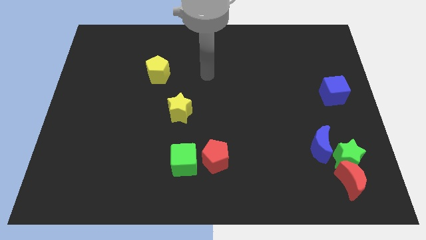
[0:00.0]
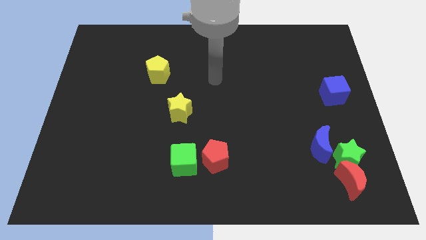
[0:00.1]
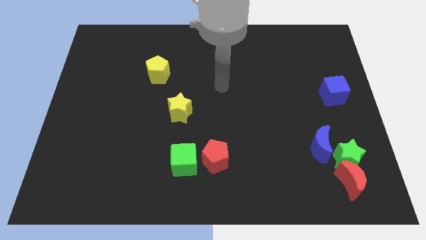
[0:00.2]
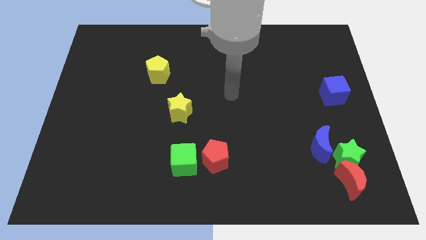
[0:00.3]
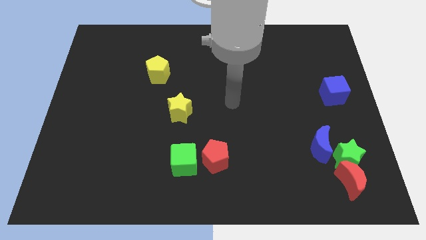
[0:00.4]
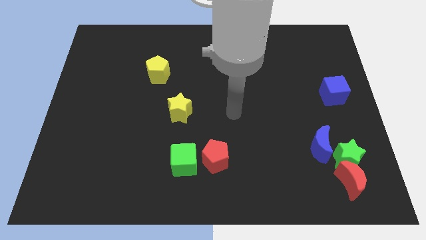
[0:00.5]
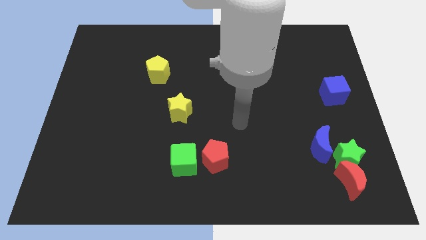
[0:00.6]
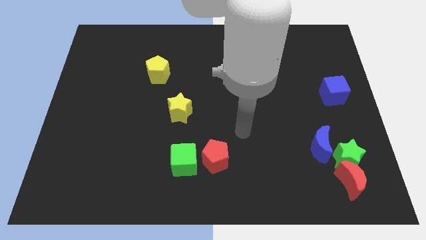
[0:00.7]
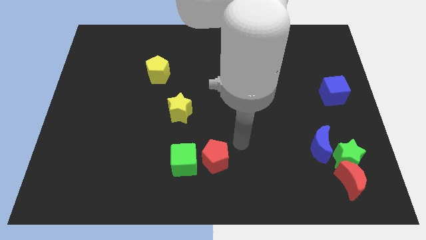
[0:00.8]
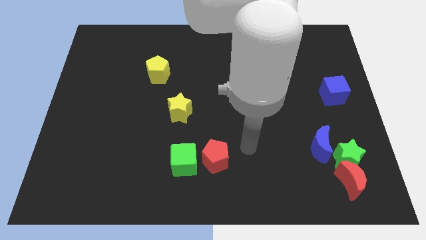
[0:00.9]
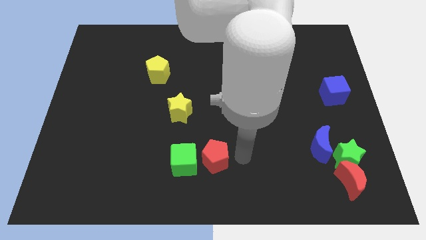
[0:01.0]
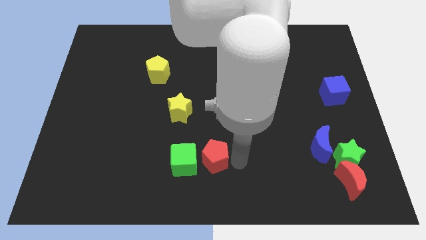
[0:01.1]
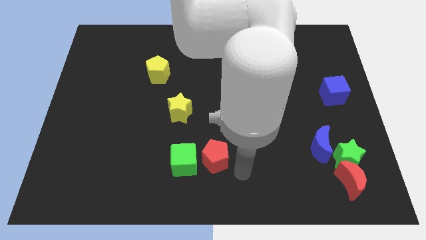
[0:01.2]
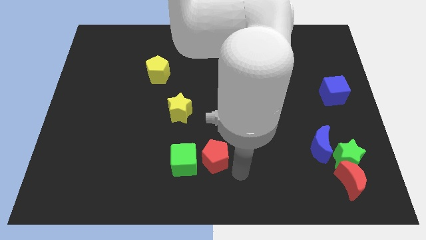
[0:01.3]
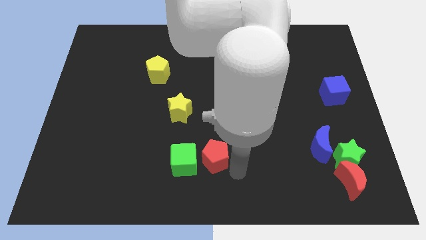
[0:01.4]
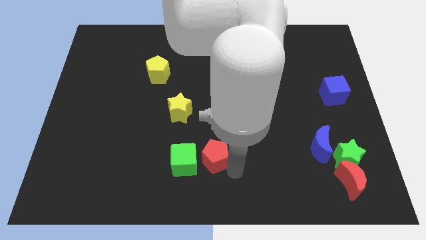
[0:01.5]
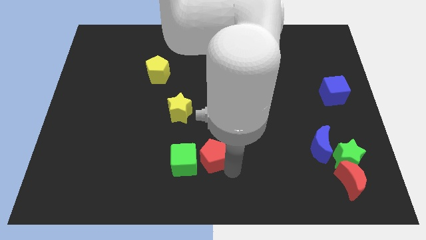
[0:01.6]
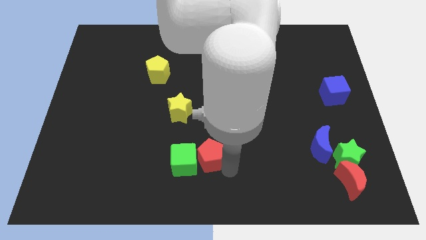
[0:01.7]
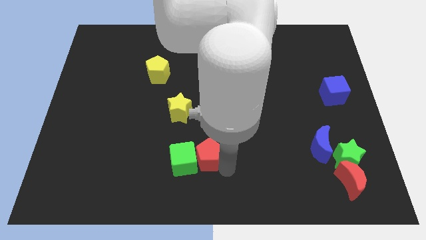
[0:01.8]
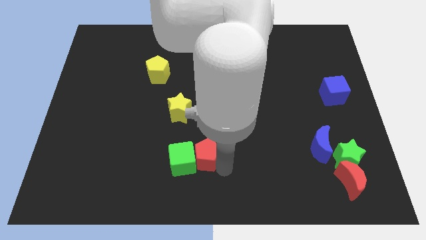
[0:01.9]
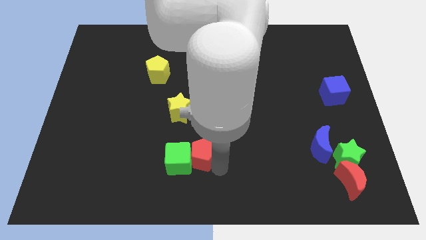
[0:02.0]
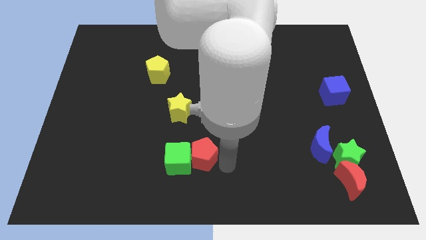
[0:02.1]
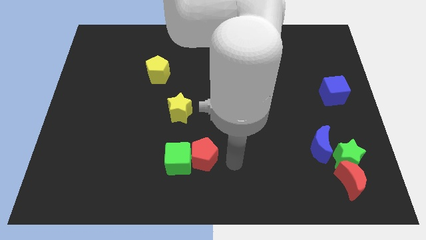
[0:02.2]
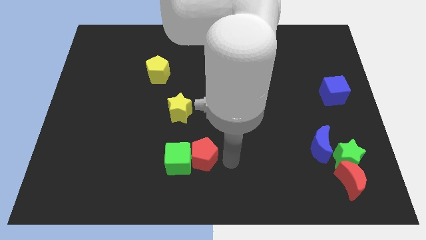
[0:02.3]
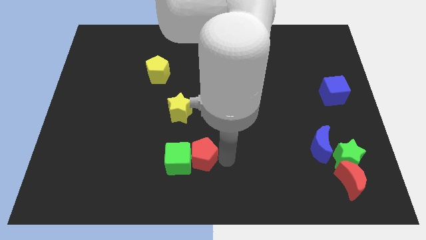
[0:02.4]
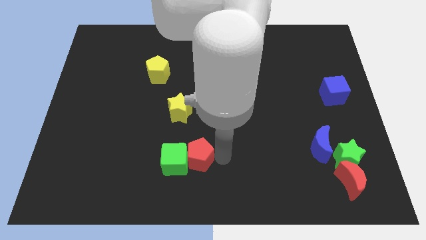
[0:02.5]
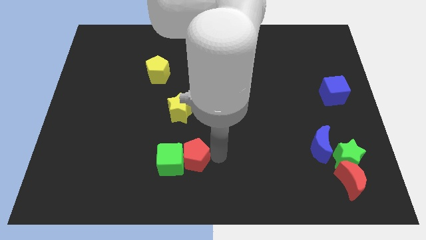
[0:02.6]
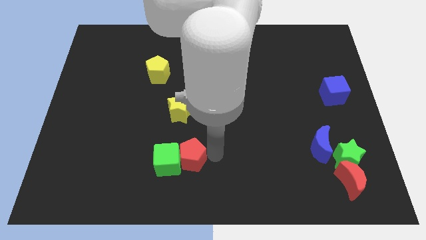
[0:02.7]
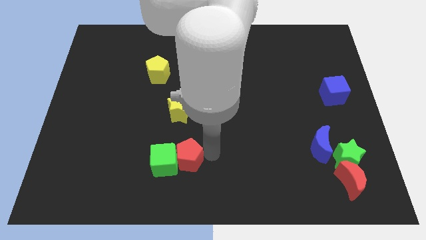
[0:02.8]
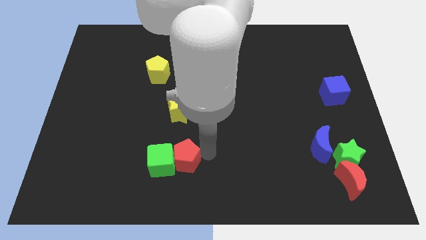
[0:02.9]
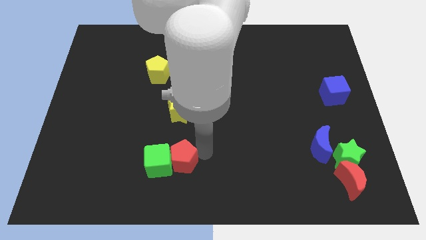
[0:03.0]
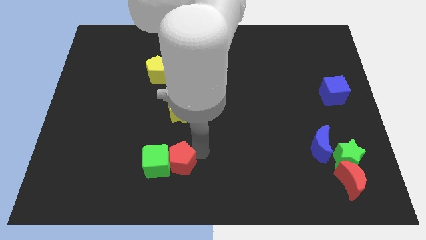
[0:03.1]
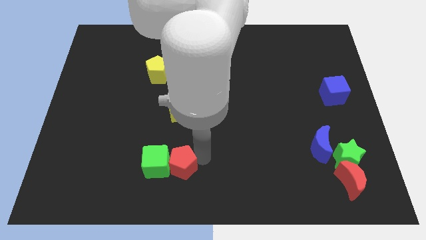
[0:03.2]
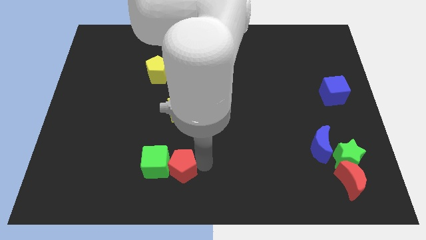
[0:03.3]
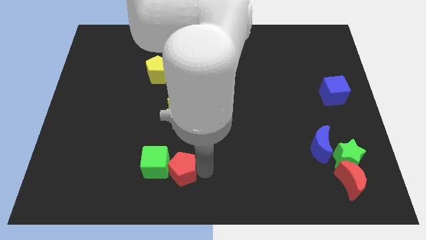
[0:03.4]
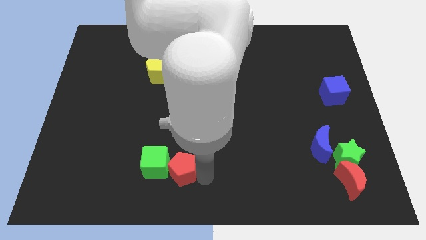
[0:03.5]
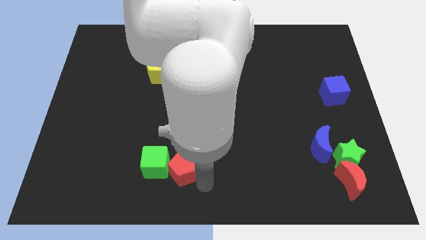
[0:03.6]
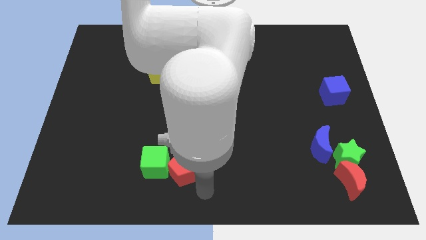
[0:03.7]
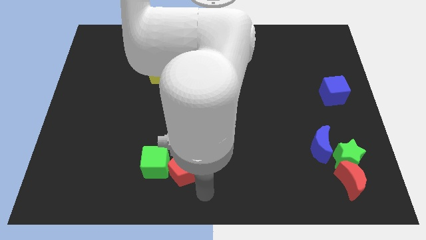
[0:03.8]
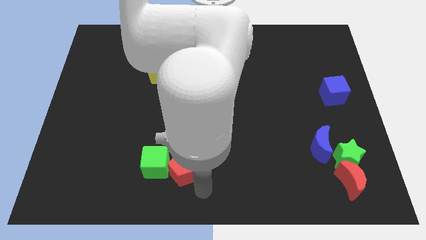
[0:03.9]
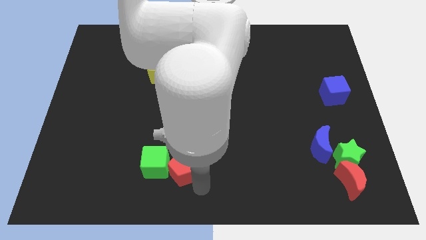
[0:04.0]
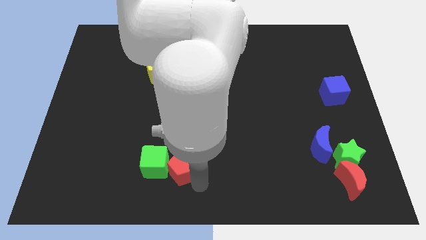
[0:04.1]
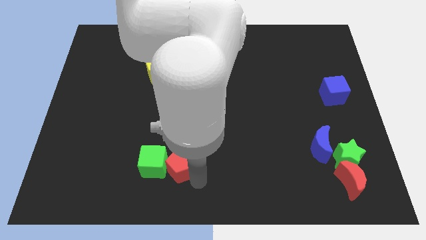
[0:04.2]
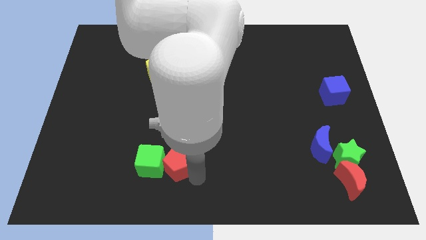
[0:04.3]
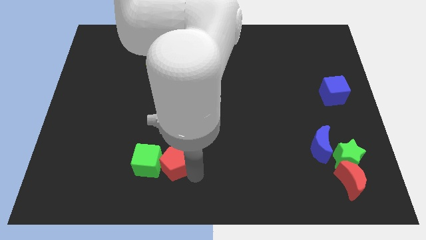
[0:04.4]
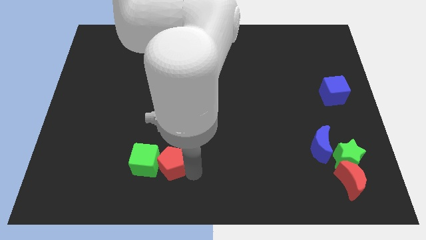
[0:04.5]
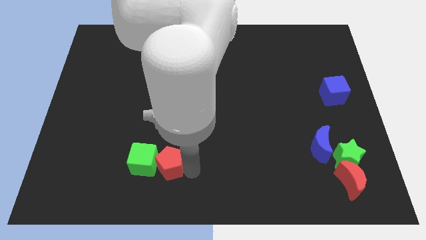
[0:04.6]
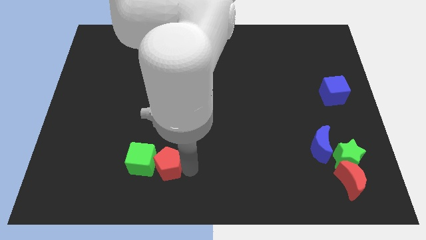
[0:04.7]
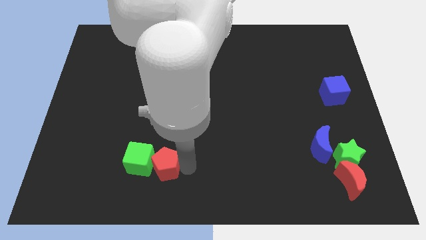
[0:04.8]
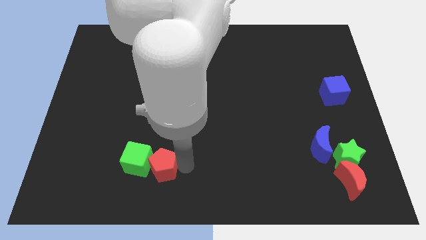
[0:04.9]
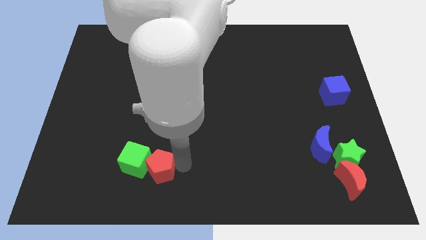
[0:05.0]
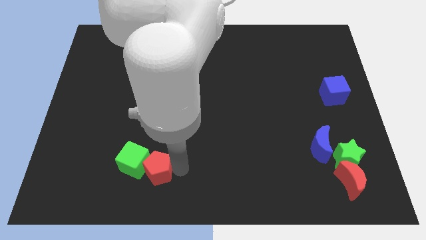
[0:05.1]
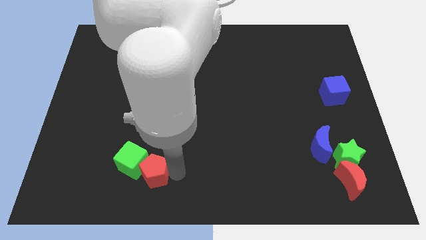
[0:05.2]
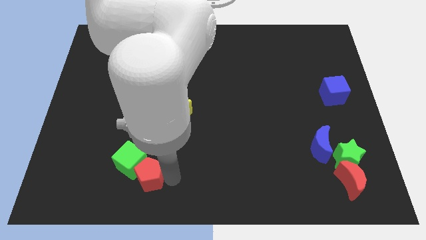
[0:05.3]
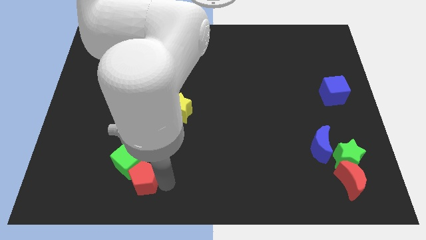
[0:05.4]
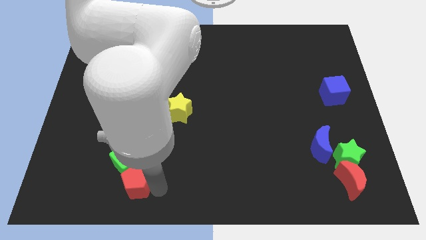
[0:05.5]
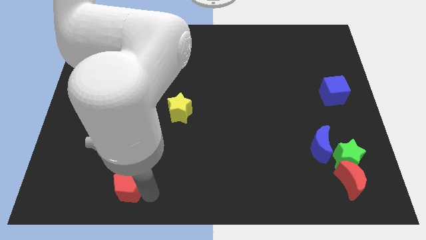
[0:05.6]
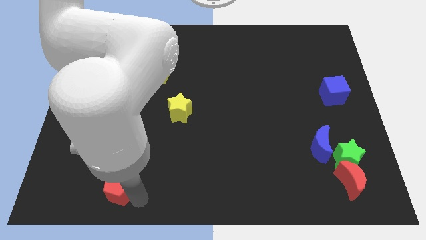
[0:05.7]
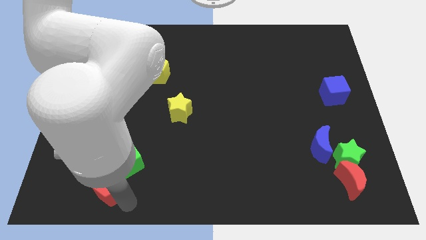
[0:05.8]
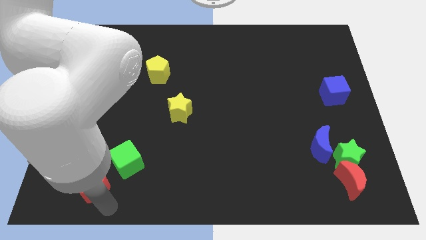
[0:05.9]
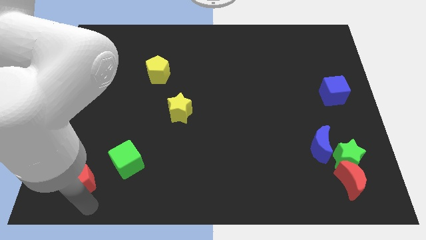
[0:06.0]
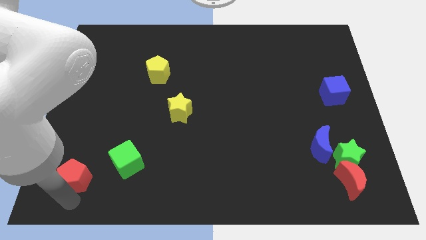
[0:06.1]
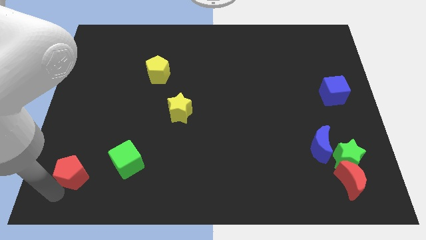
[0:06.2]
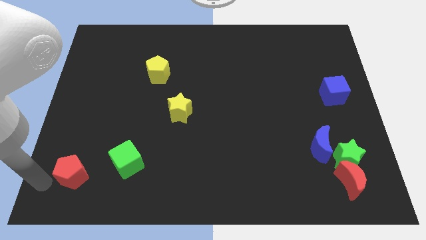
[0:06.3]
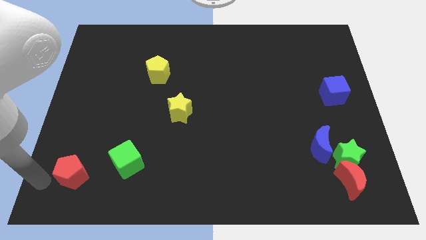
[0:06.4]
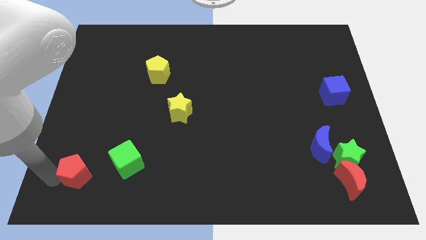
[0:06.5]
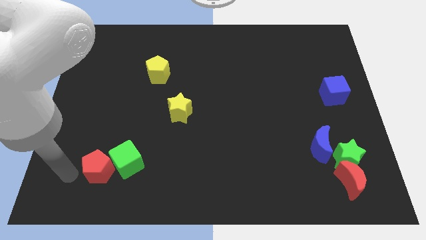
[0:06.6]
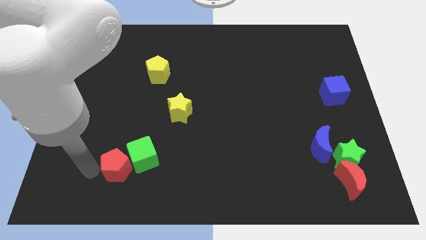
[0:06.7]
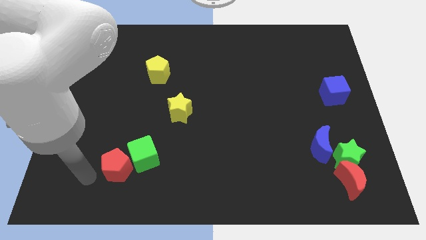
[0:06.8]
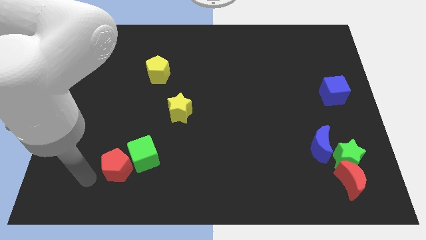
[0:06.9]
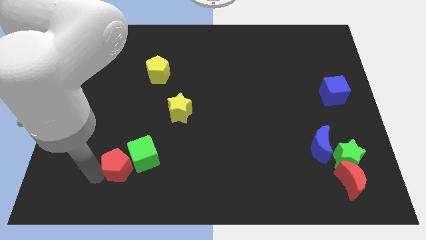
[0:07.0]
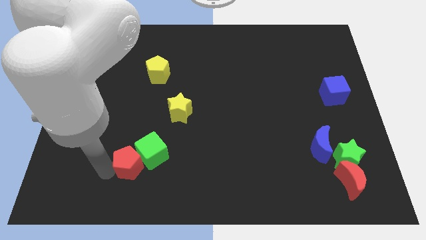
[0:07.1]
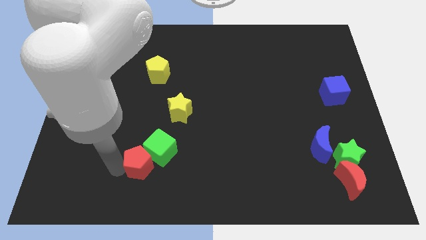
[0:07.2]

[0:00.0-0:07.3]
put the red pentagon to the left side of the green cube

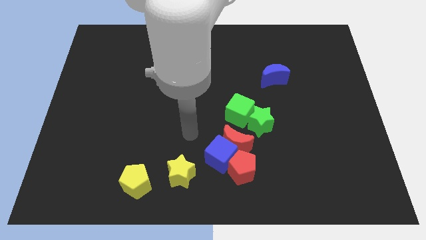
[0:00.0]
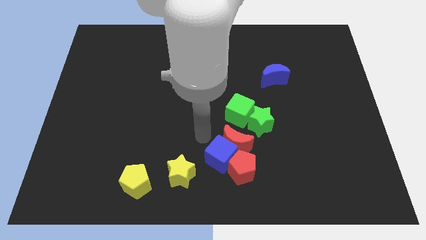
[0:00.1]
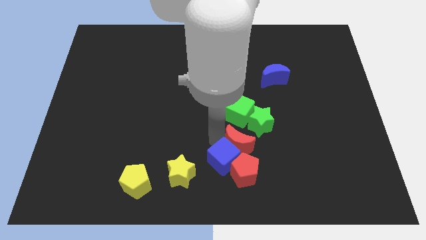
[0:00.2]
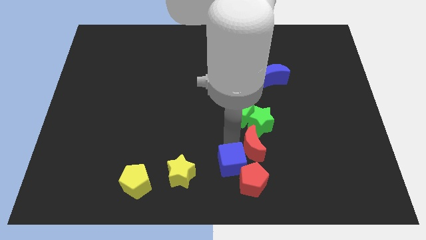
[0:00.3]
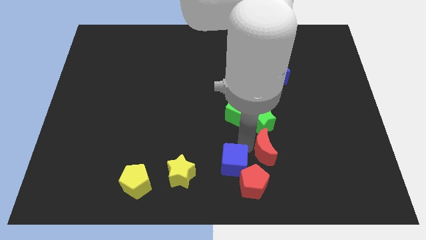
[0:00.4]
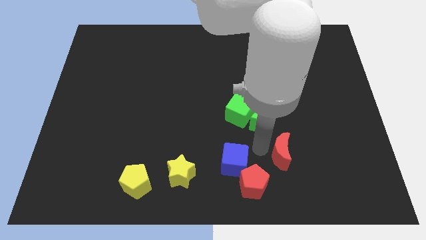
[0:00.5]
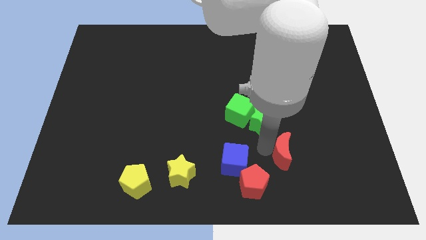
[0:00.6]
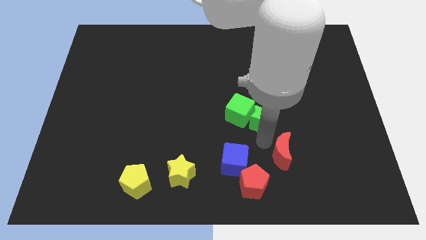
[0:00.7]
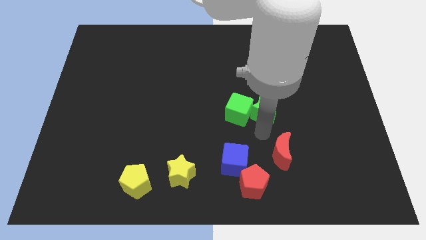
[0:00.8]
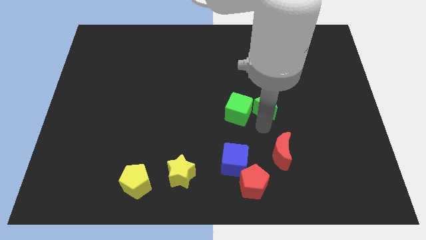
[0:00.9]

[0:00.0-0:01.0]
move the green star to the bottom left side of the blue moon
